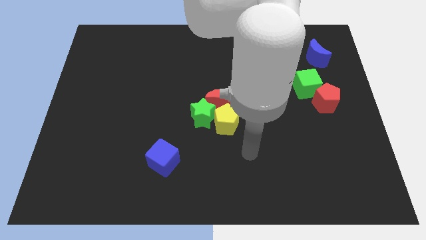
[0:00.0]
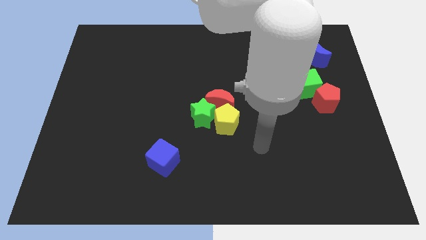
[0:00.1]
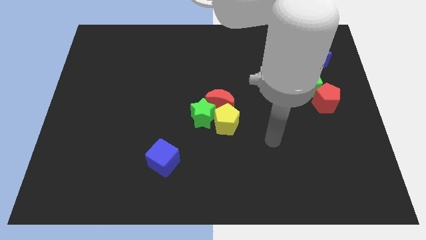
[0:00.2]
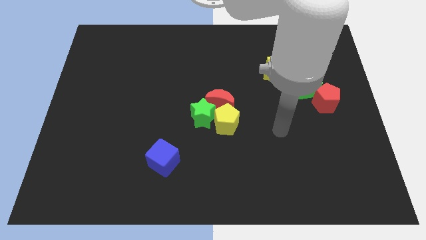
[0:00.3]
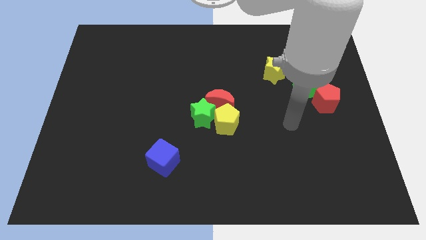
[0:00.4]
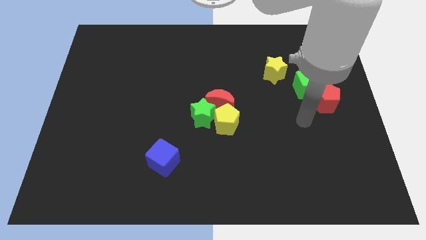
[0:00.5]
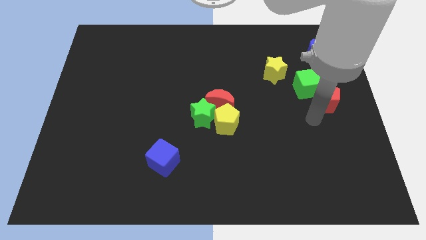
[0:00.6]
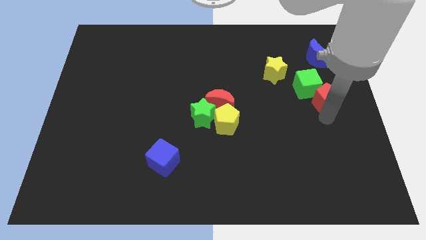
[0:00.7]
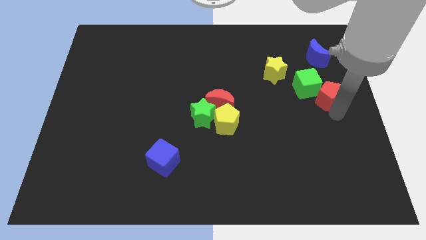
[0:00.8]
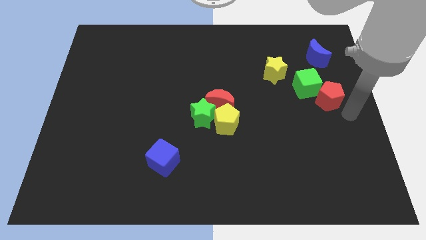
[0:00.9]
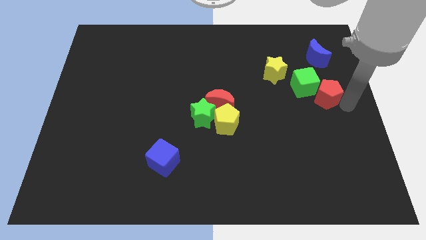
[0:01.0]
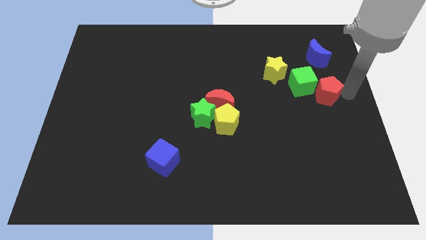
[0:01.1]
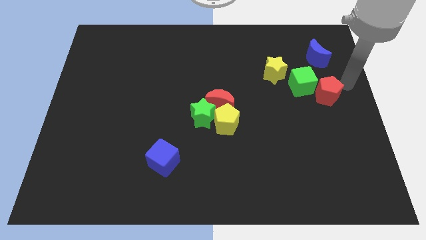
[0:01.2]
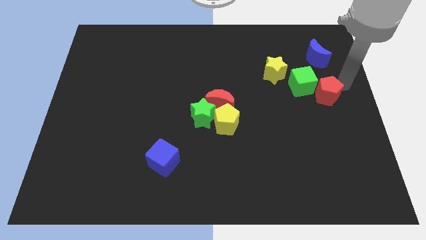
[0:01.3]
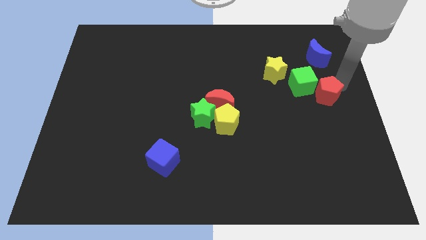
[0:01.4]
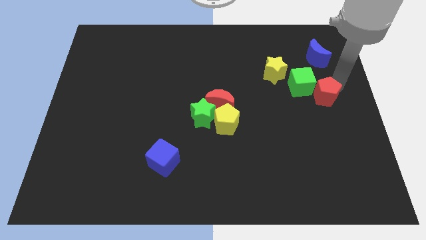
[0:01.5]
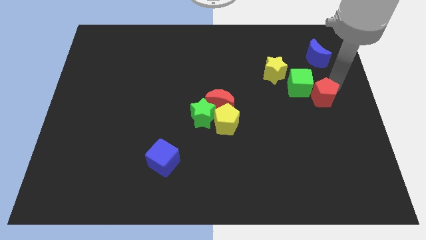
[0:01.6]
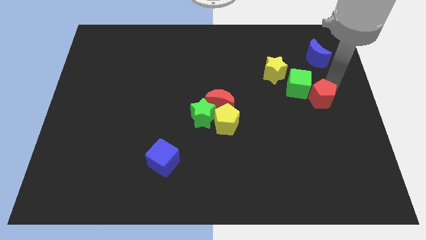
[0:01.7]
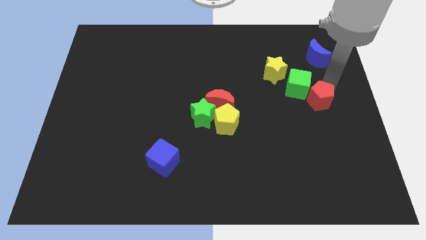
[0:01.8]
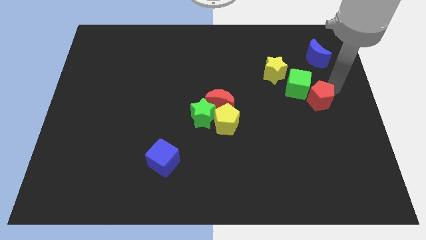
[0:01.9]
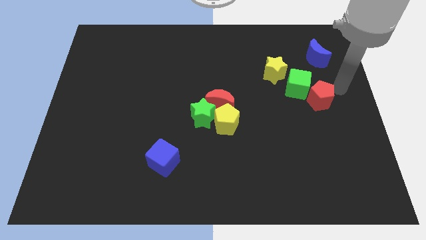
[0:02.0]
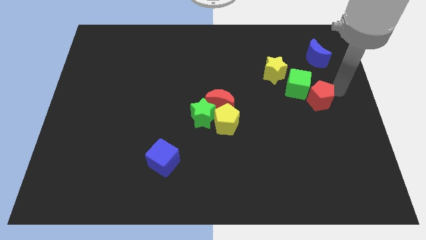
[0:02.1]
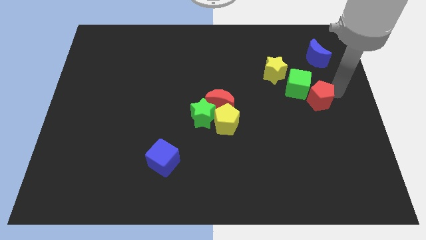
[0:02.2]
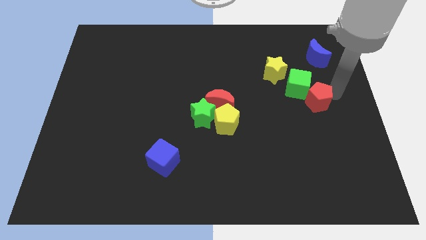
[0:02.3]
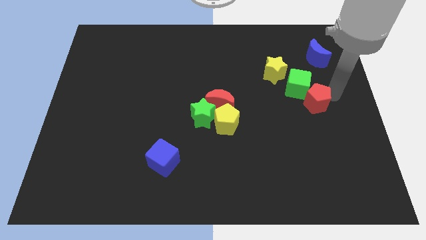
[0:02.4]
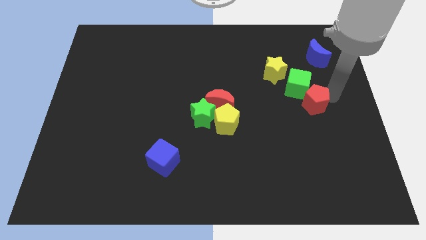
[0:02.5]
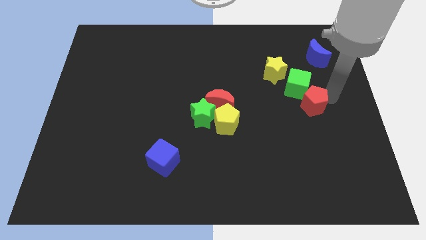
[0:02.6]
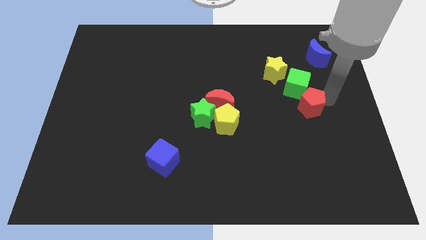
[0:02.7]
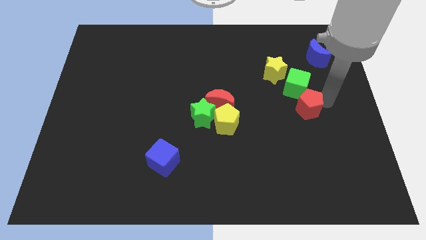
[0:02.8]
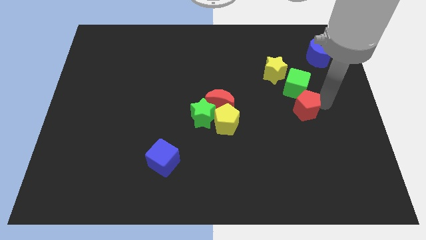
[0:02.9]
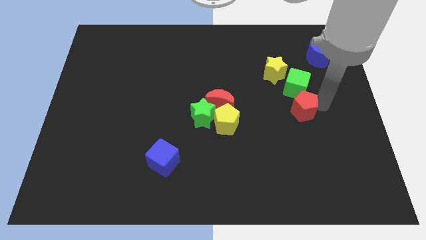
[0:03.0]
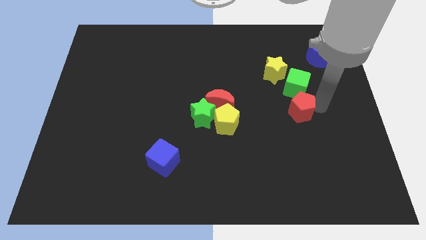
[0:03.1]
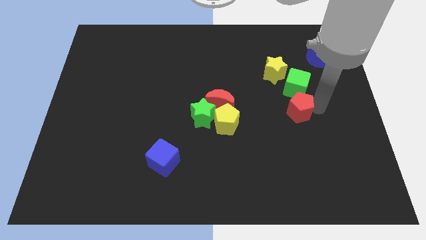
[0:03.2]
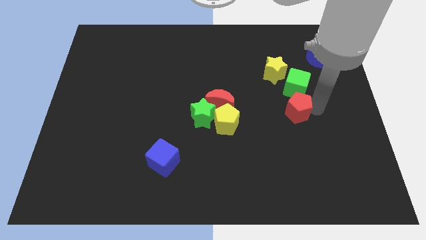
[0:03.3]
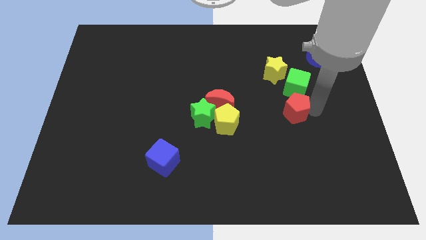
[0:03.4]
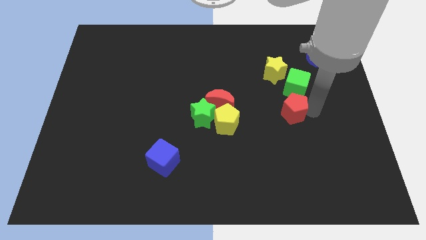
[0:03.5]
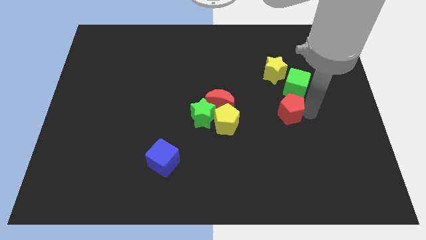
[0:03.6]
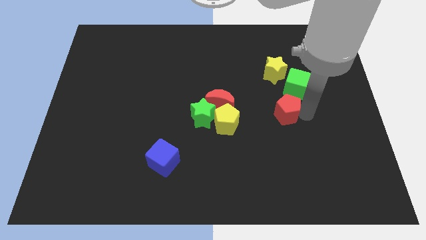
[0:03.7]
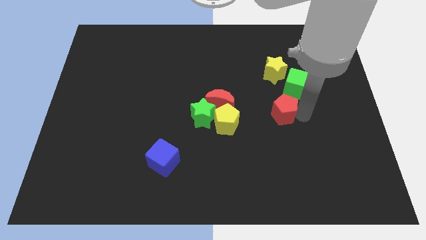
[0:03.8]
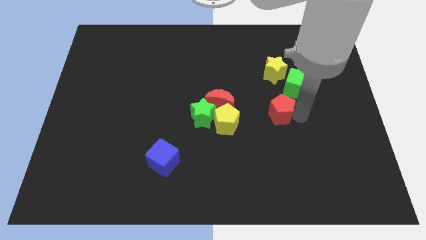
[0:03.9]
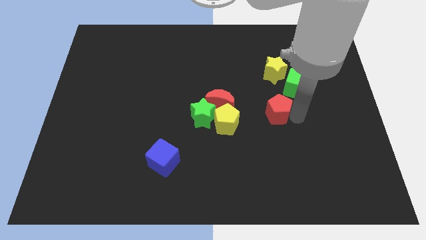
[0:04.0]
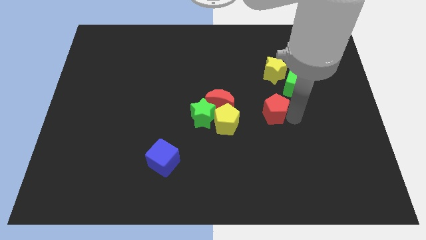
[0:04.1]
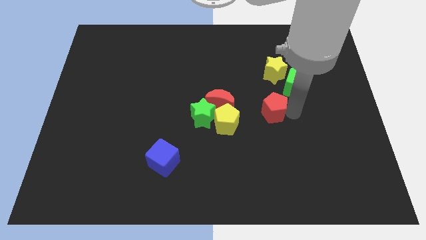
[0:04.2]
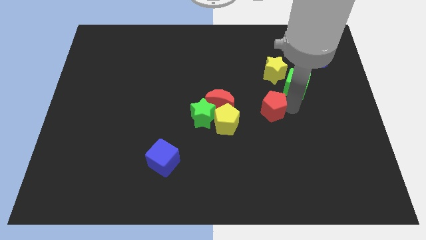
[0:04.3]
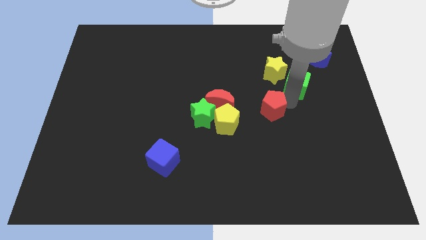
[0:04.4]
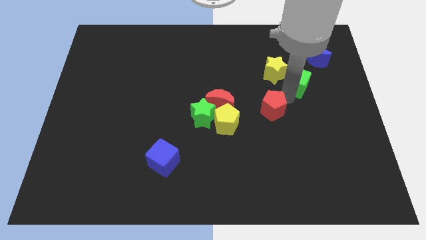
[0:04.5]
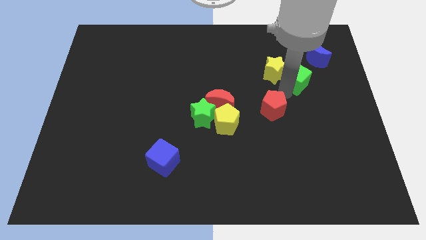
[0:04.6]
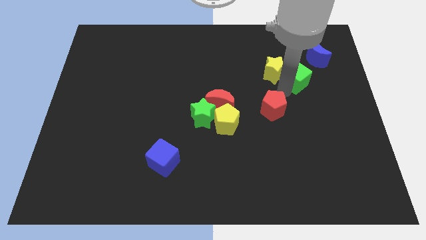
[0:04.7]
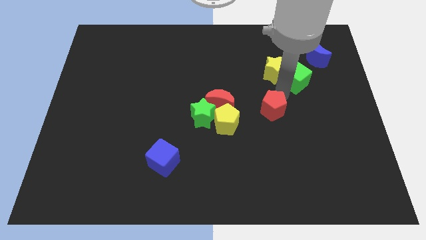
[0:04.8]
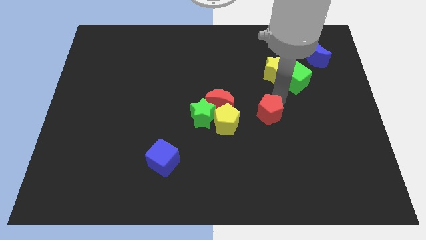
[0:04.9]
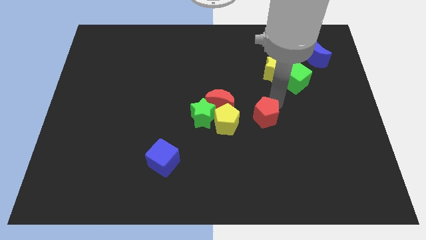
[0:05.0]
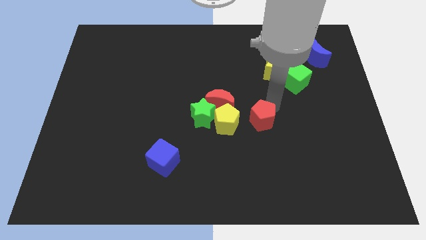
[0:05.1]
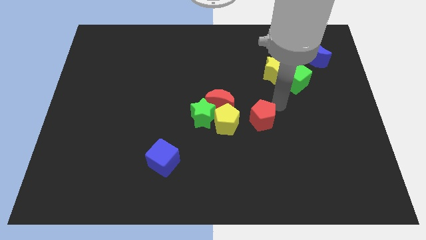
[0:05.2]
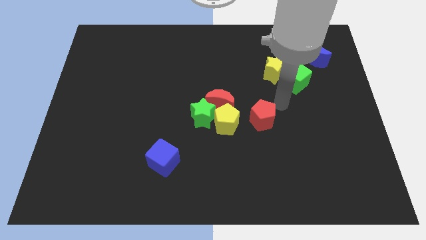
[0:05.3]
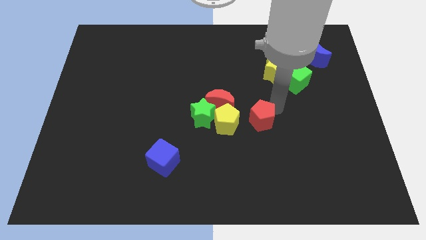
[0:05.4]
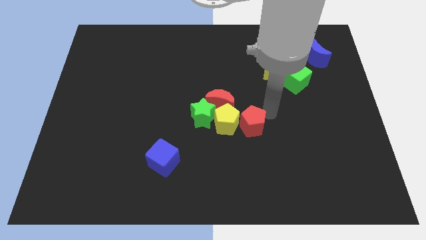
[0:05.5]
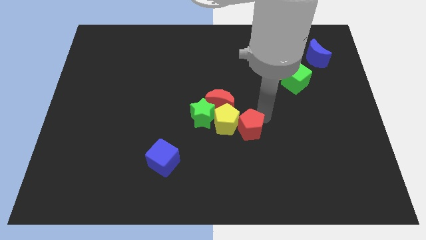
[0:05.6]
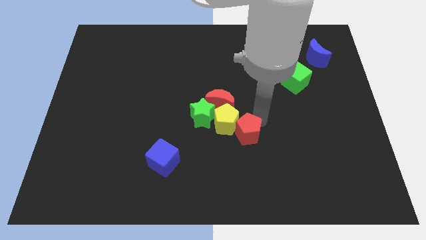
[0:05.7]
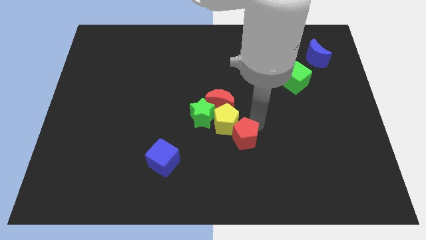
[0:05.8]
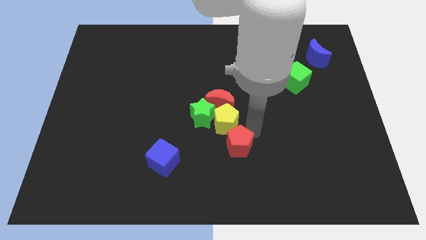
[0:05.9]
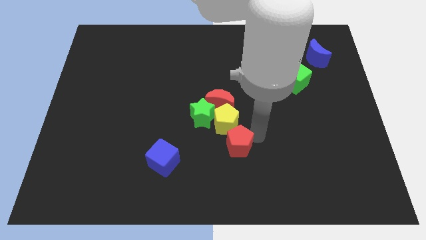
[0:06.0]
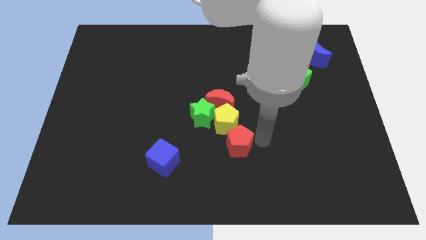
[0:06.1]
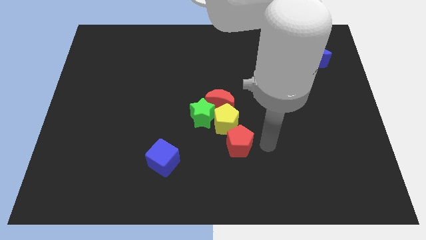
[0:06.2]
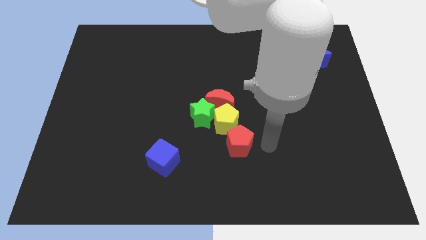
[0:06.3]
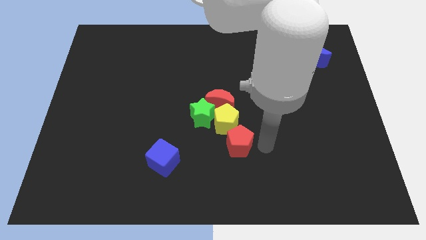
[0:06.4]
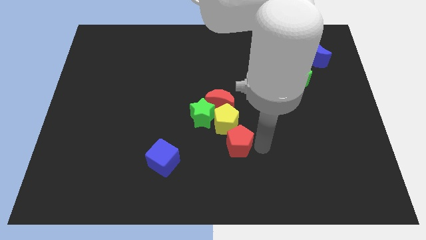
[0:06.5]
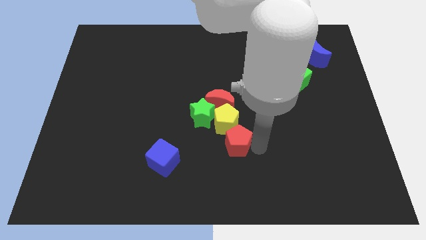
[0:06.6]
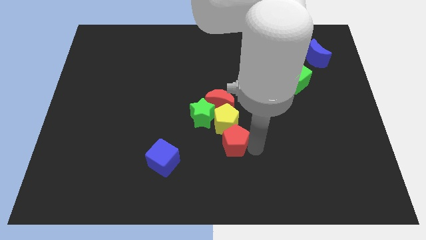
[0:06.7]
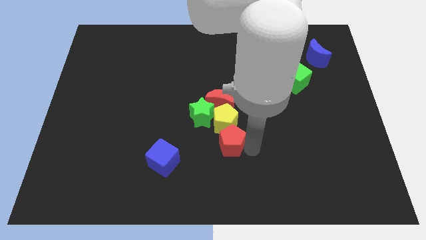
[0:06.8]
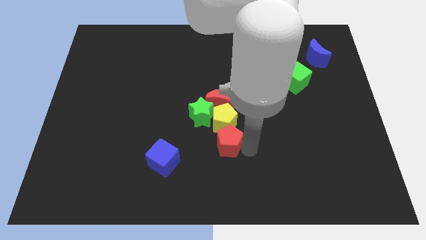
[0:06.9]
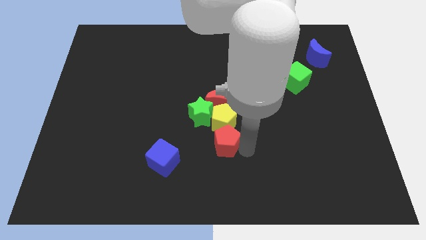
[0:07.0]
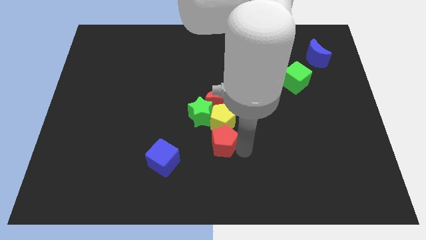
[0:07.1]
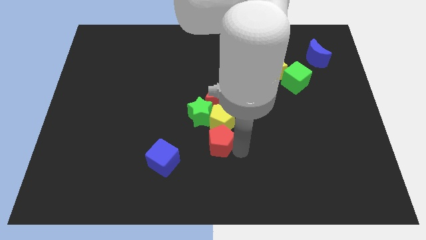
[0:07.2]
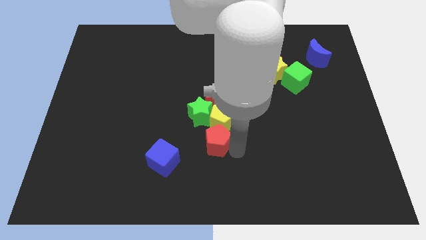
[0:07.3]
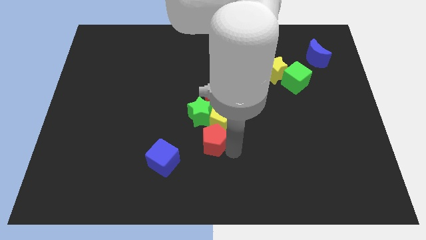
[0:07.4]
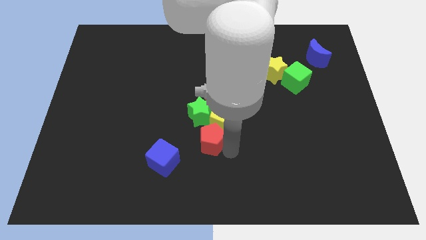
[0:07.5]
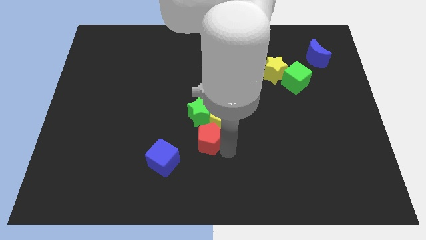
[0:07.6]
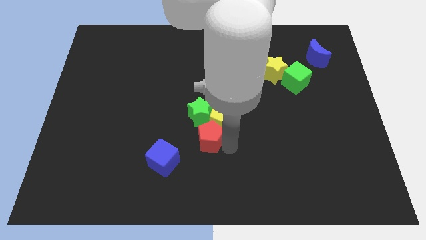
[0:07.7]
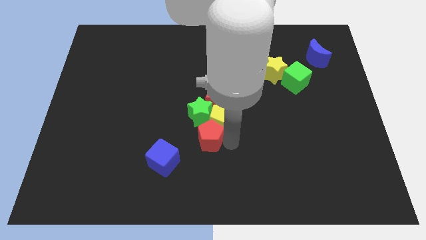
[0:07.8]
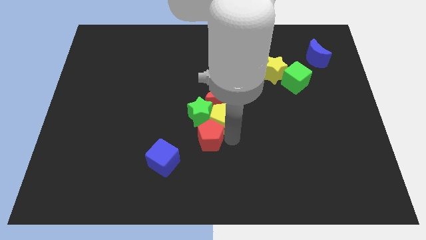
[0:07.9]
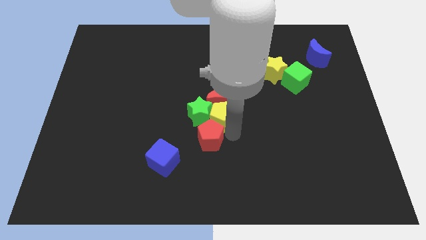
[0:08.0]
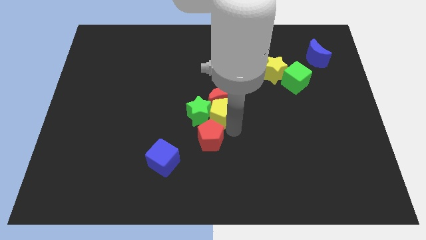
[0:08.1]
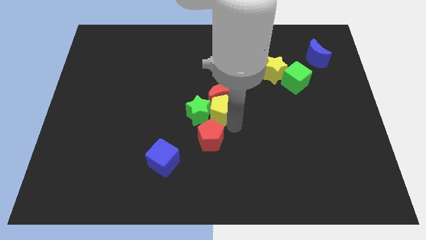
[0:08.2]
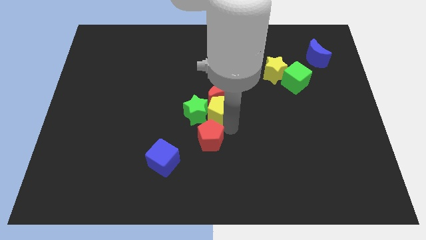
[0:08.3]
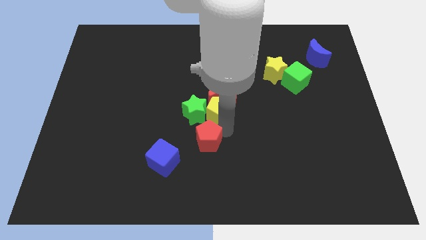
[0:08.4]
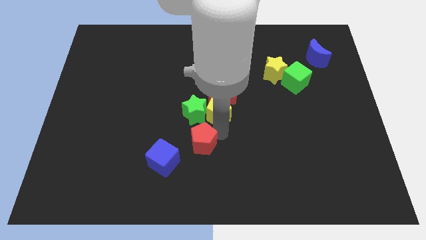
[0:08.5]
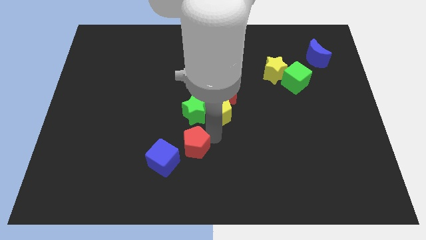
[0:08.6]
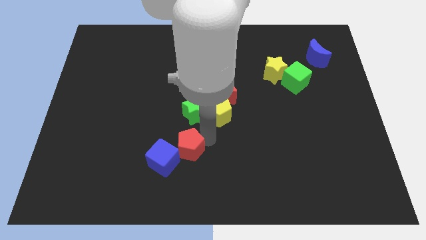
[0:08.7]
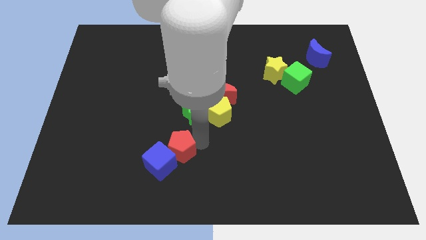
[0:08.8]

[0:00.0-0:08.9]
push the red pentagon next to the blue cube
